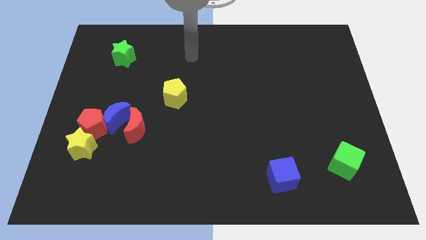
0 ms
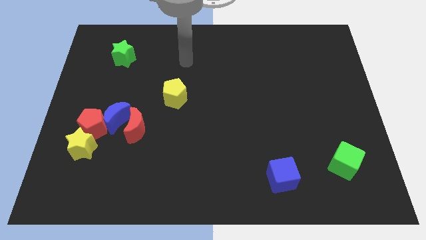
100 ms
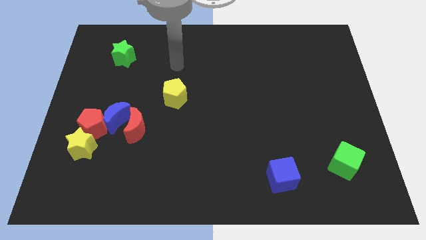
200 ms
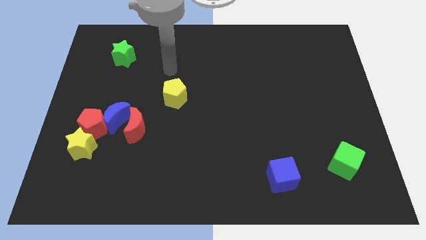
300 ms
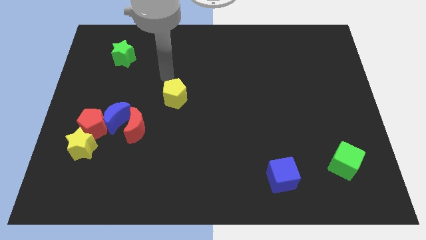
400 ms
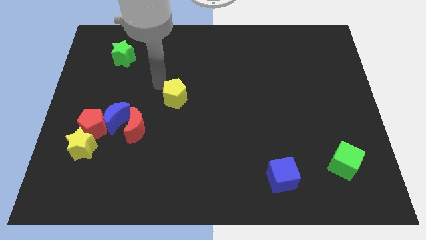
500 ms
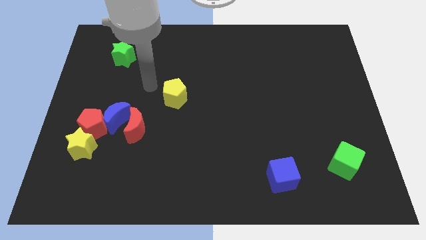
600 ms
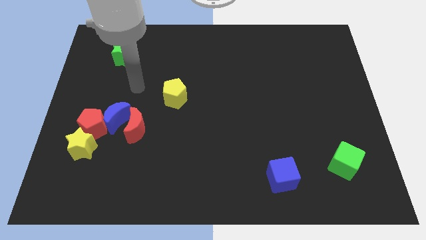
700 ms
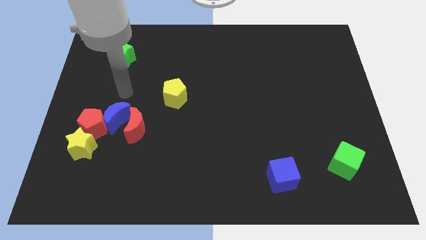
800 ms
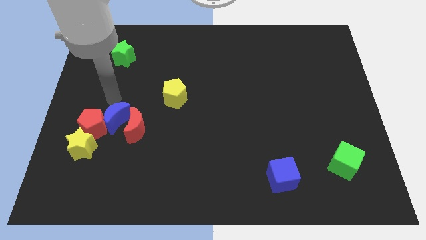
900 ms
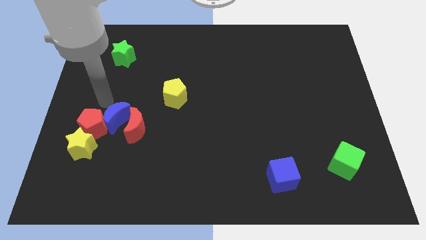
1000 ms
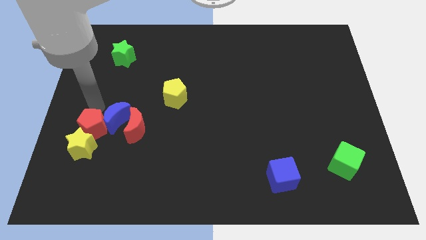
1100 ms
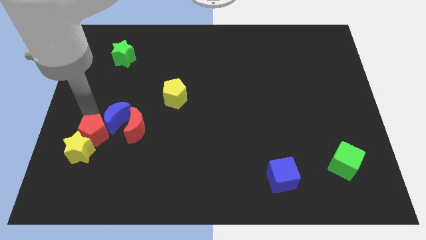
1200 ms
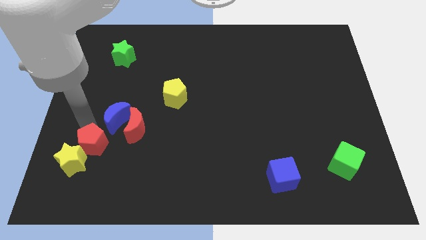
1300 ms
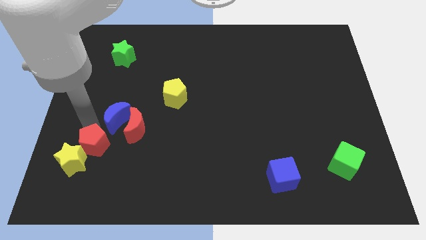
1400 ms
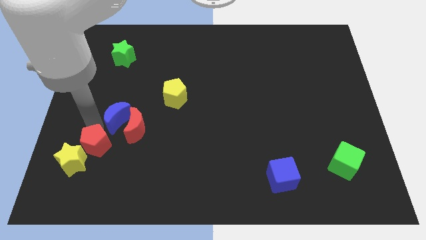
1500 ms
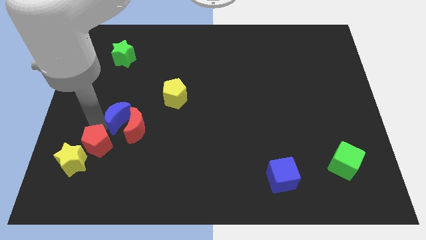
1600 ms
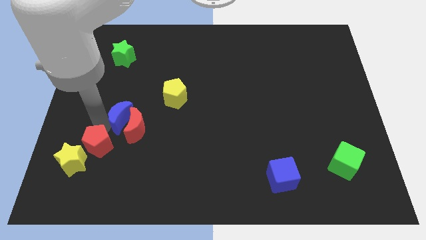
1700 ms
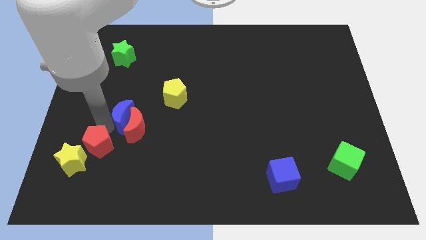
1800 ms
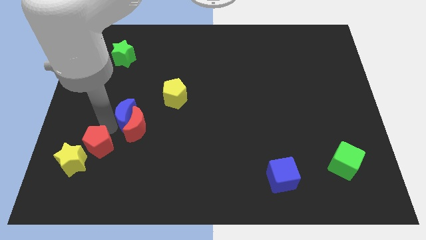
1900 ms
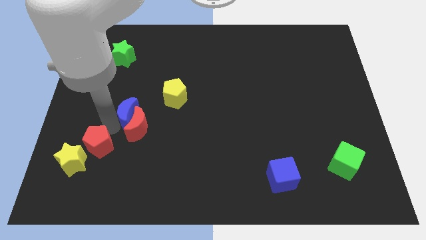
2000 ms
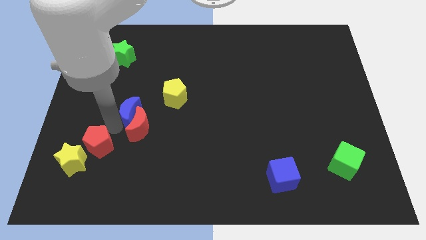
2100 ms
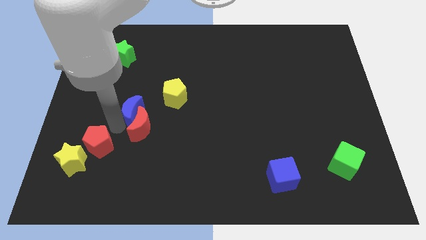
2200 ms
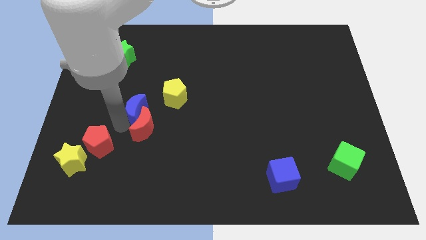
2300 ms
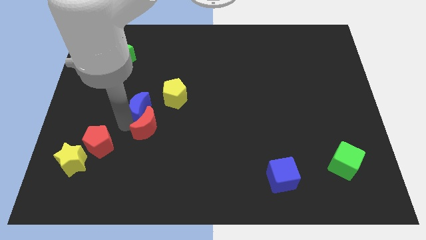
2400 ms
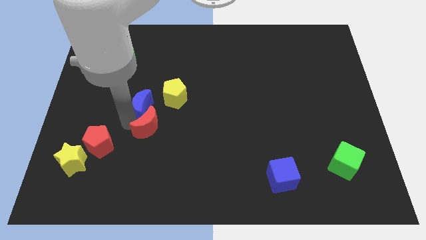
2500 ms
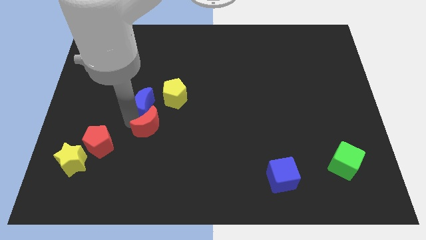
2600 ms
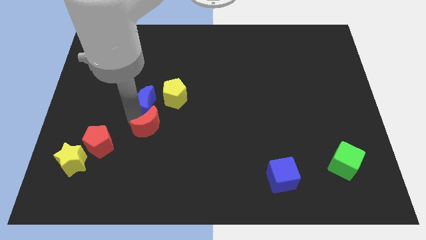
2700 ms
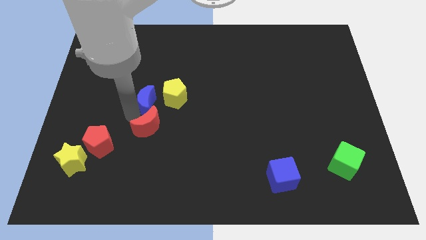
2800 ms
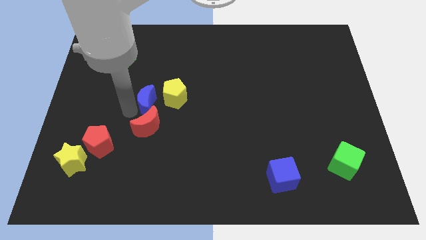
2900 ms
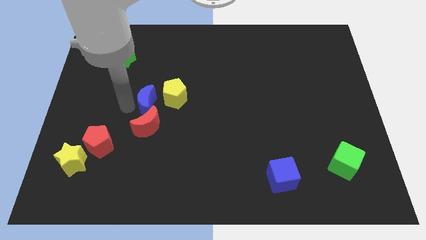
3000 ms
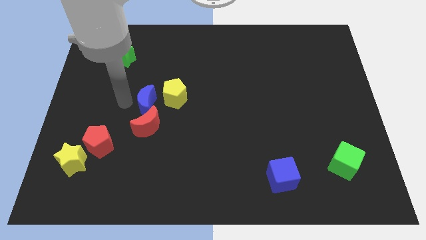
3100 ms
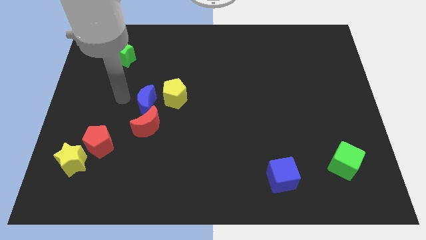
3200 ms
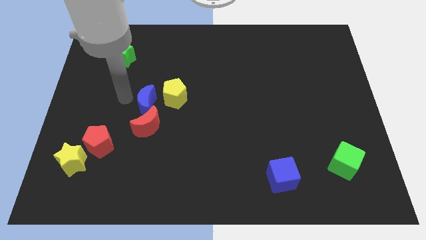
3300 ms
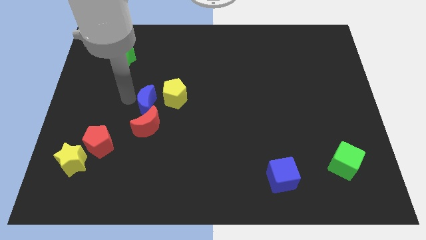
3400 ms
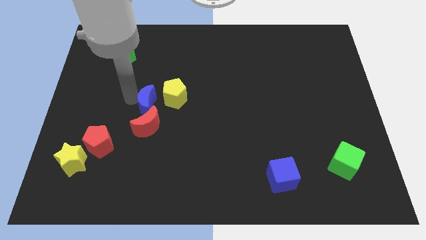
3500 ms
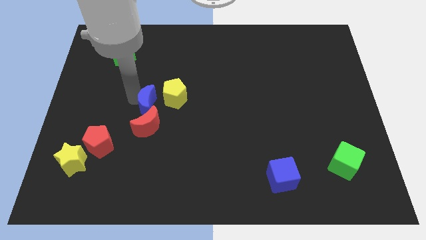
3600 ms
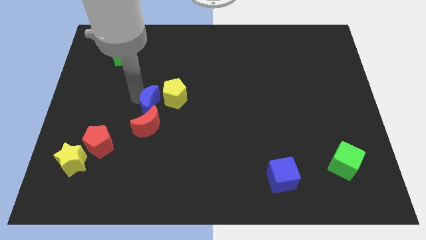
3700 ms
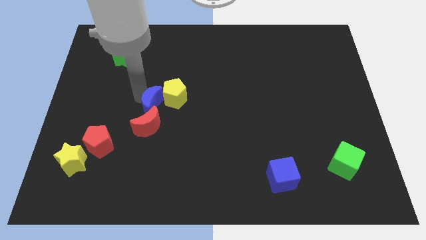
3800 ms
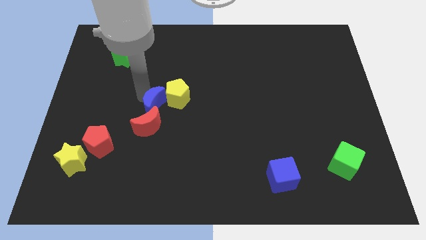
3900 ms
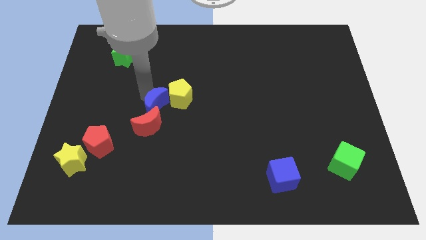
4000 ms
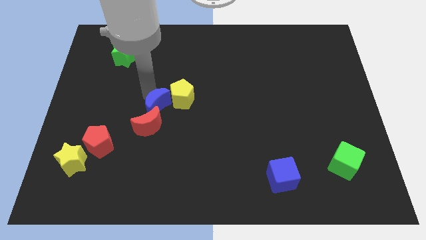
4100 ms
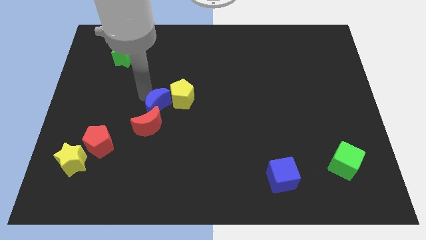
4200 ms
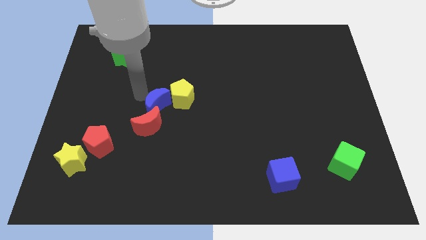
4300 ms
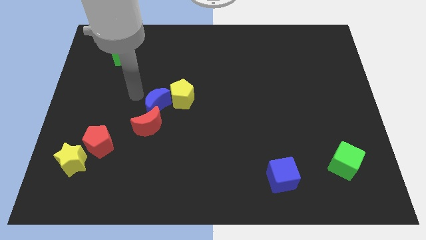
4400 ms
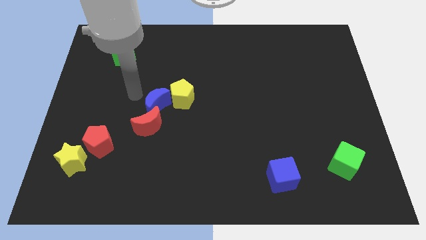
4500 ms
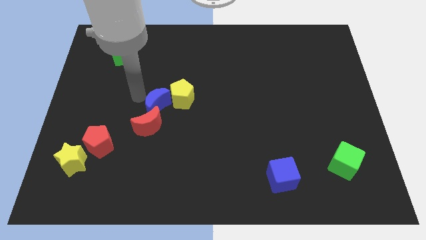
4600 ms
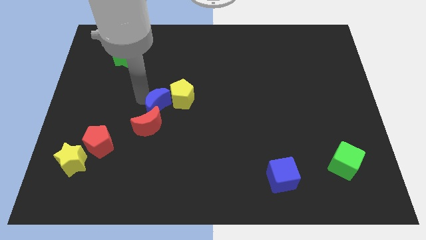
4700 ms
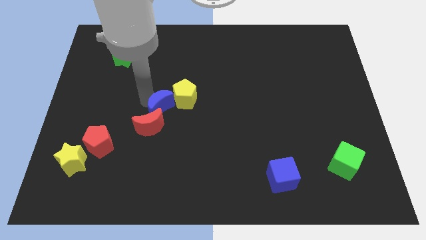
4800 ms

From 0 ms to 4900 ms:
move the blue moon to the center of the board
